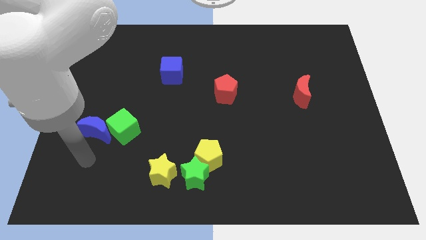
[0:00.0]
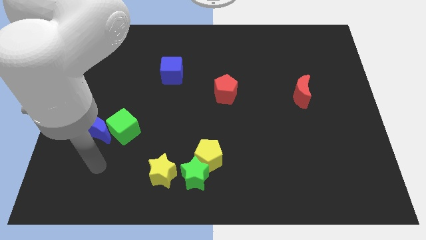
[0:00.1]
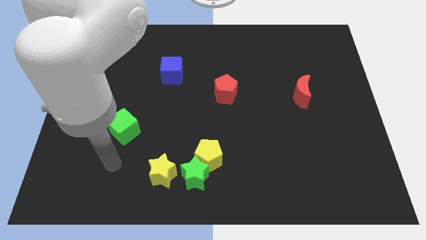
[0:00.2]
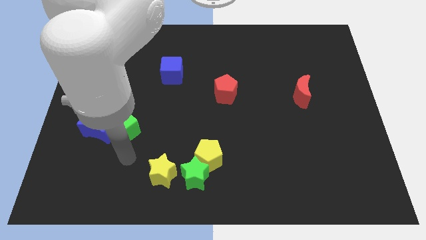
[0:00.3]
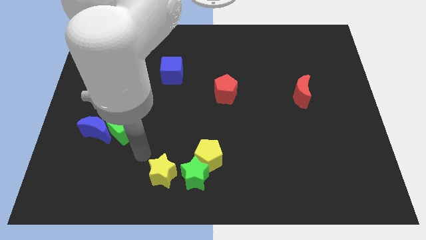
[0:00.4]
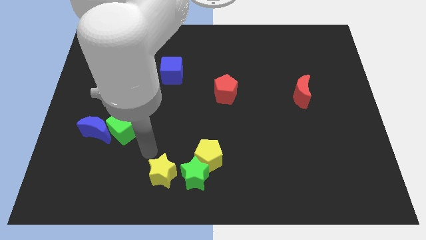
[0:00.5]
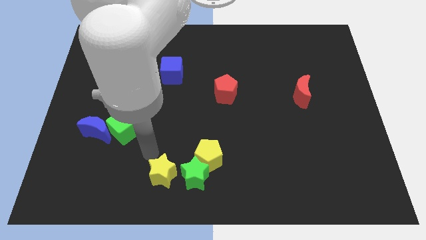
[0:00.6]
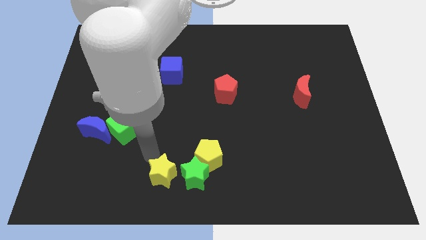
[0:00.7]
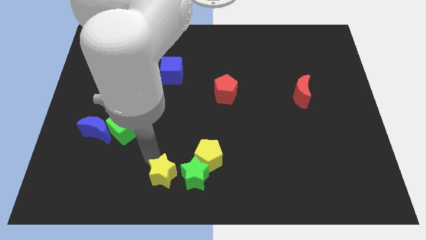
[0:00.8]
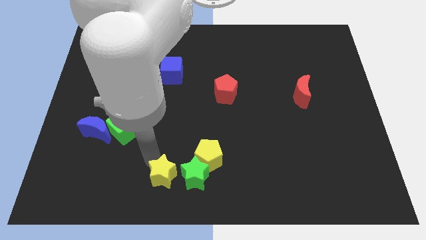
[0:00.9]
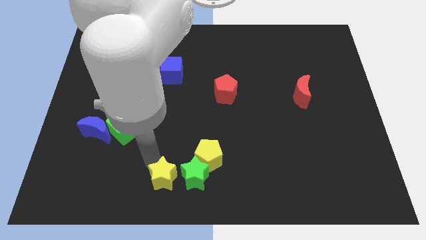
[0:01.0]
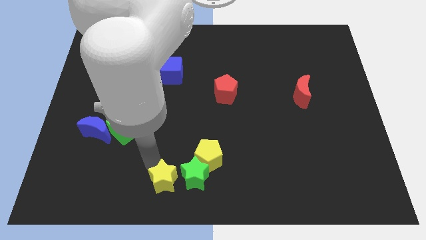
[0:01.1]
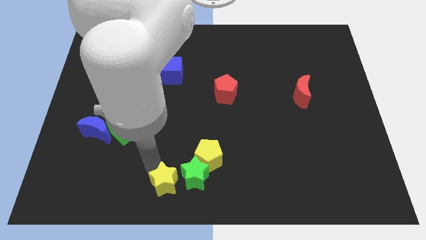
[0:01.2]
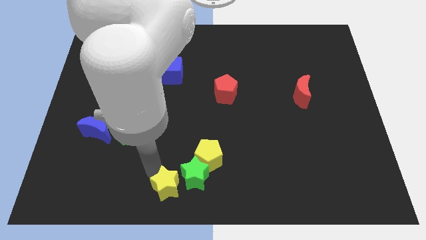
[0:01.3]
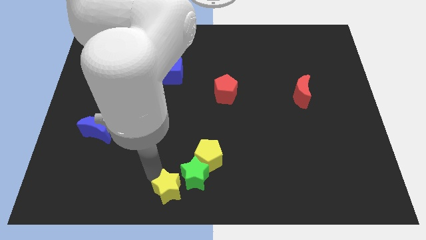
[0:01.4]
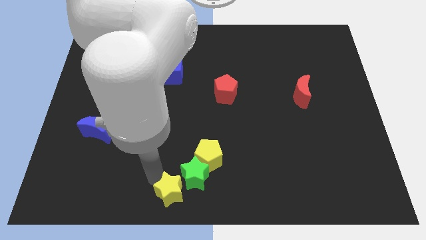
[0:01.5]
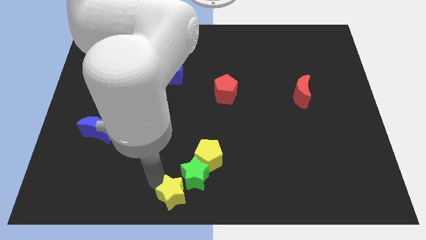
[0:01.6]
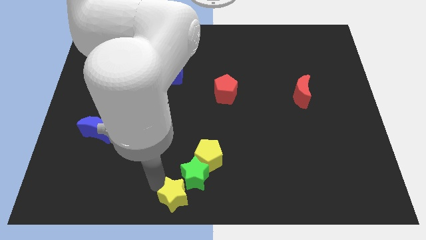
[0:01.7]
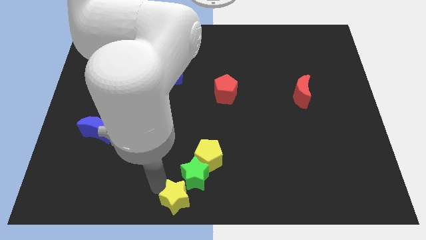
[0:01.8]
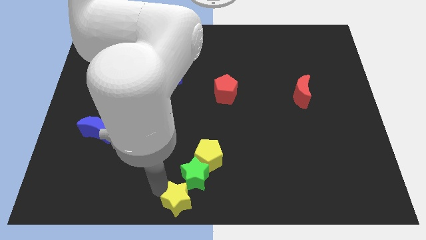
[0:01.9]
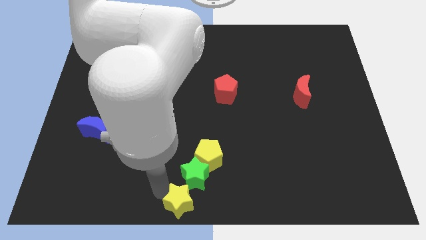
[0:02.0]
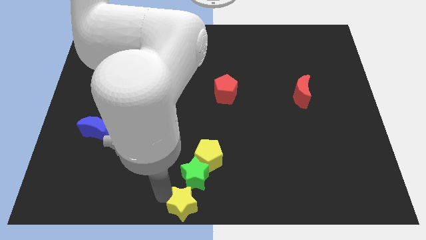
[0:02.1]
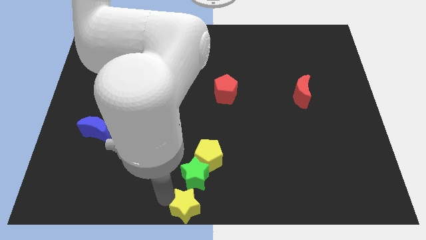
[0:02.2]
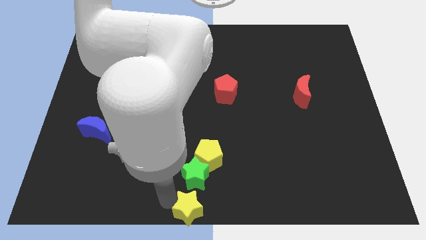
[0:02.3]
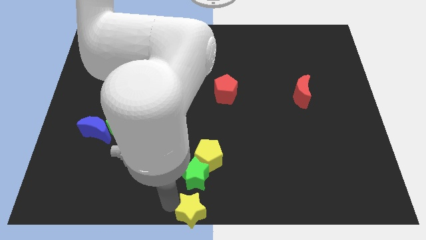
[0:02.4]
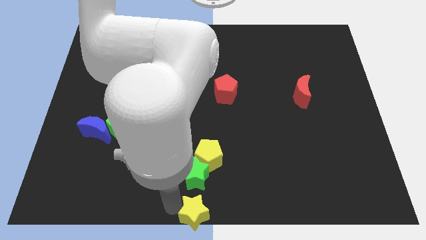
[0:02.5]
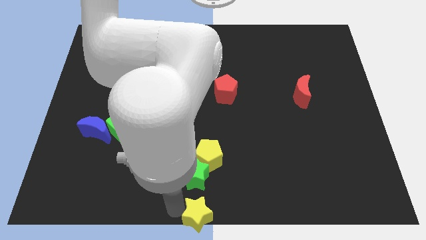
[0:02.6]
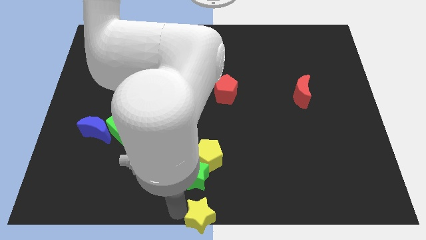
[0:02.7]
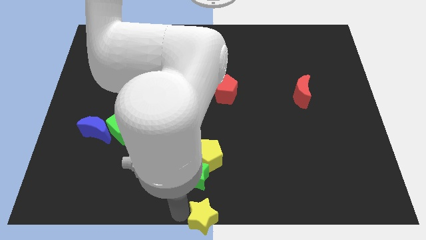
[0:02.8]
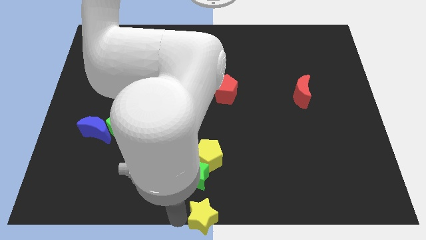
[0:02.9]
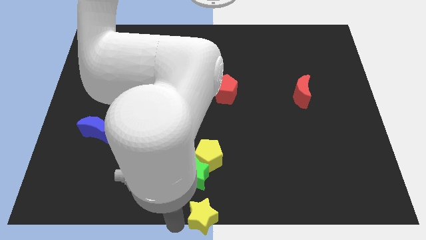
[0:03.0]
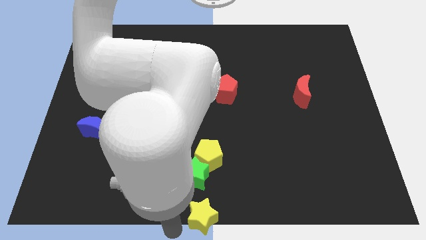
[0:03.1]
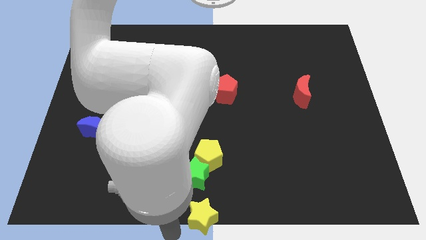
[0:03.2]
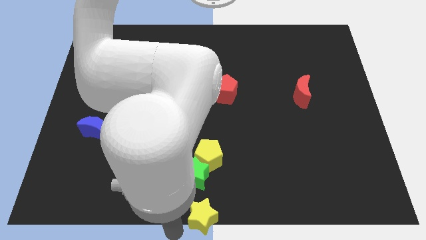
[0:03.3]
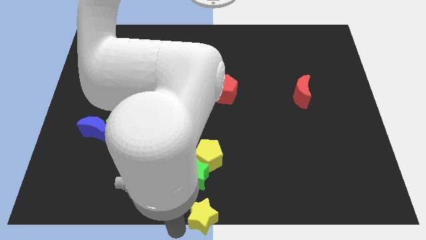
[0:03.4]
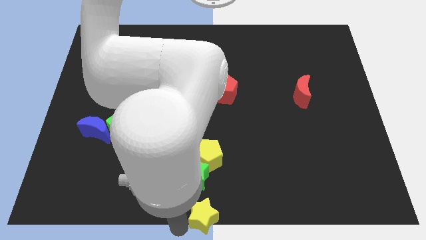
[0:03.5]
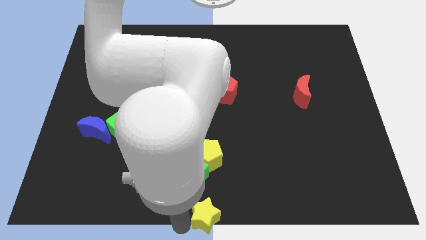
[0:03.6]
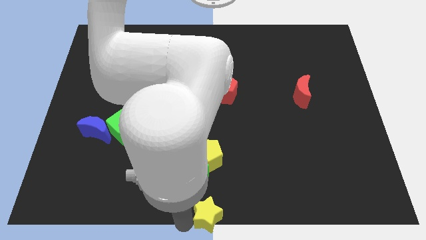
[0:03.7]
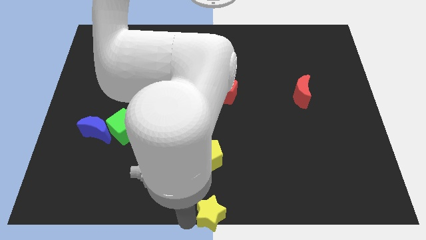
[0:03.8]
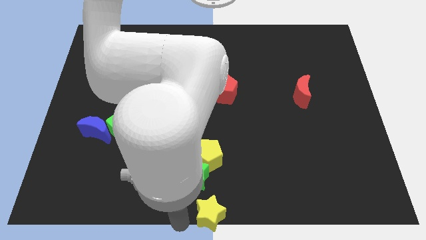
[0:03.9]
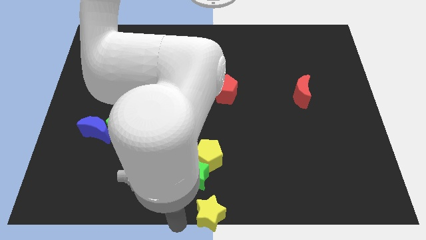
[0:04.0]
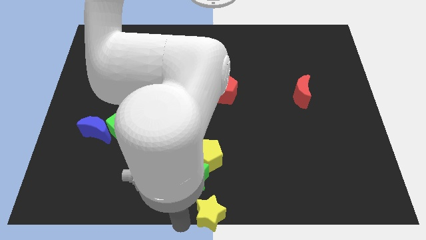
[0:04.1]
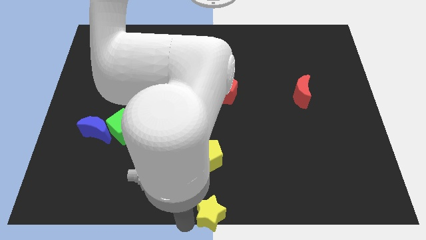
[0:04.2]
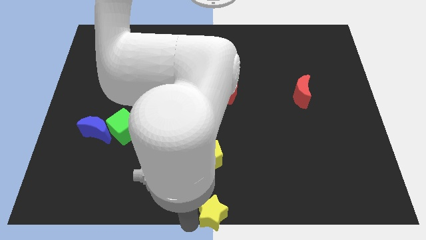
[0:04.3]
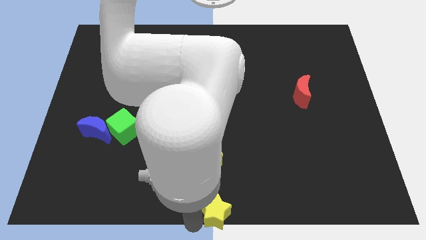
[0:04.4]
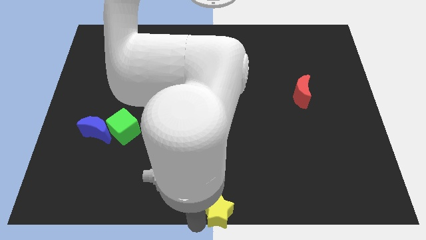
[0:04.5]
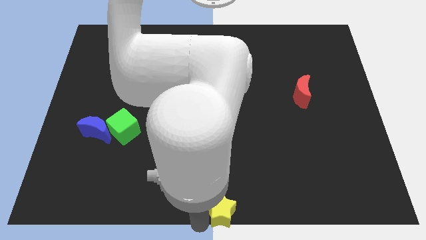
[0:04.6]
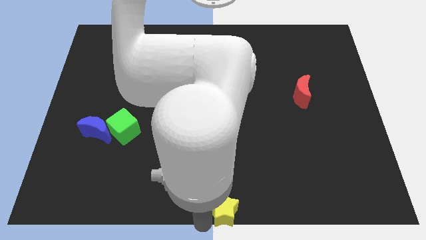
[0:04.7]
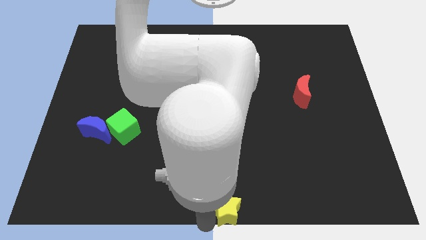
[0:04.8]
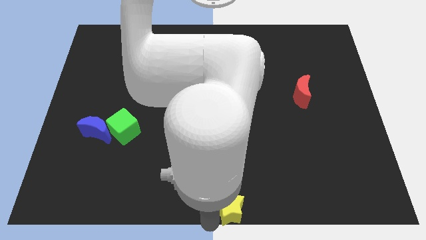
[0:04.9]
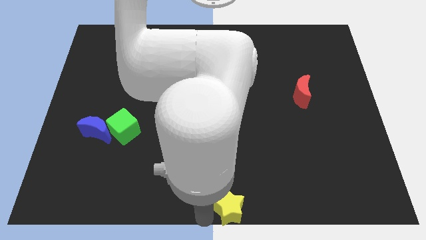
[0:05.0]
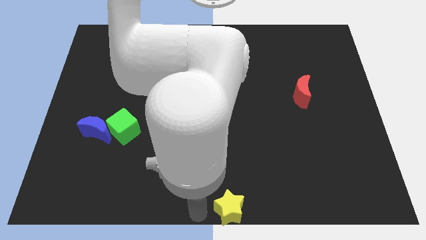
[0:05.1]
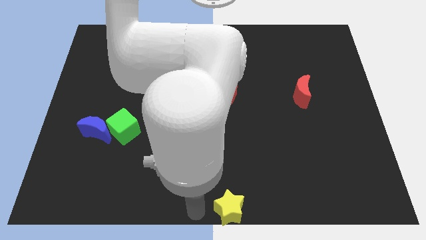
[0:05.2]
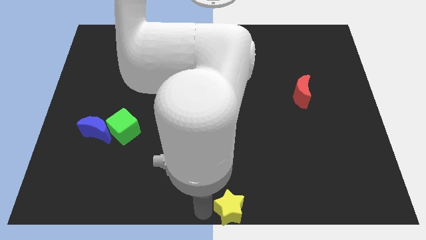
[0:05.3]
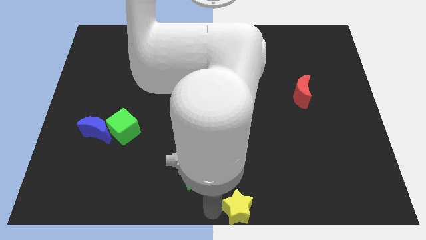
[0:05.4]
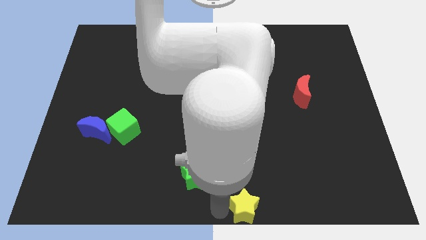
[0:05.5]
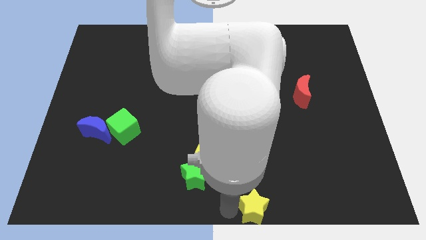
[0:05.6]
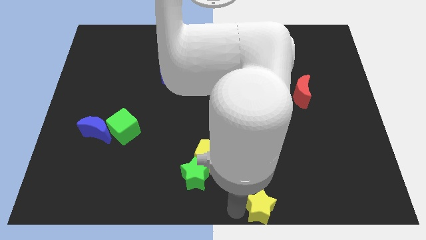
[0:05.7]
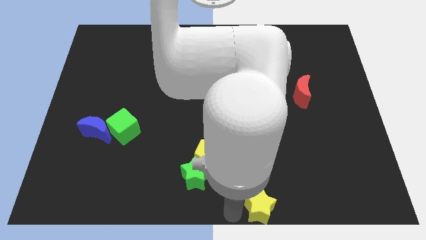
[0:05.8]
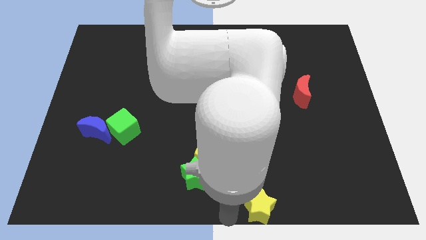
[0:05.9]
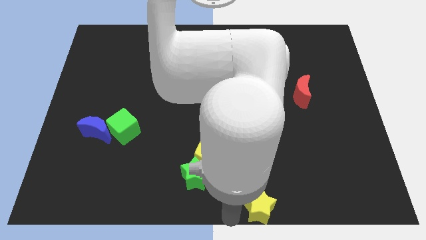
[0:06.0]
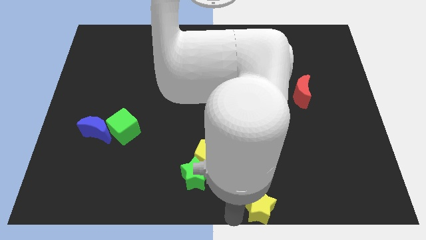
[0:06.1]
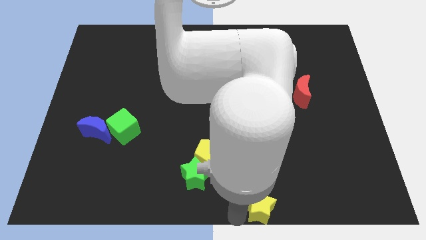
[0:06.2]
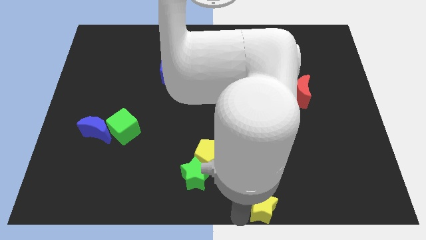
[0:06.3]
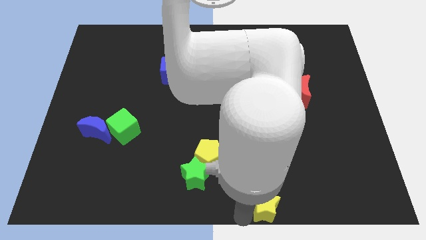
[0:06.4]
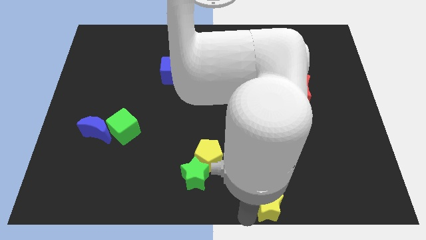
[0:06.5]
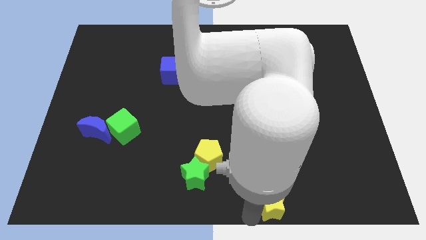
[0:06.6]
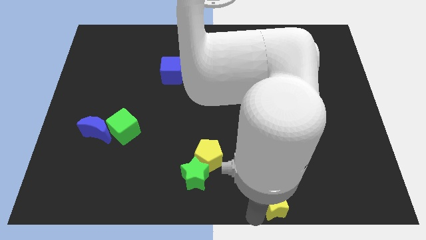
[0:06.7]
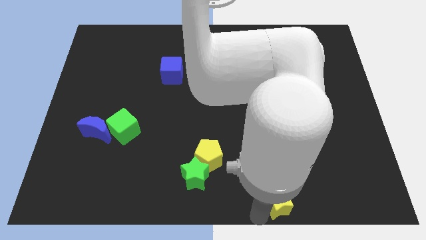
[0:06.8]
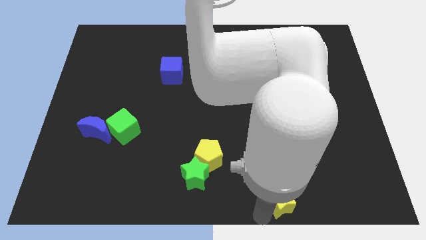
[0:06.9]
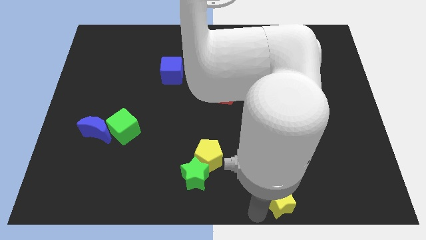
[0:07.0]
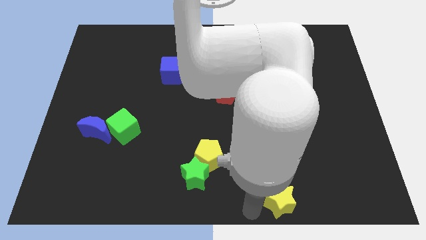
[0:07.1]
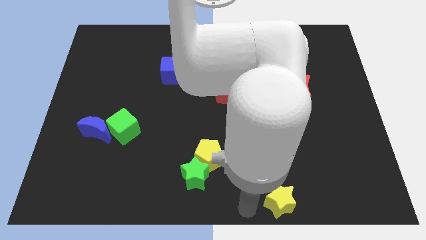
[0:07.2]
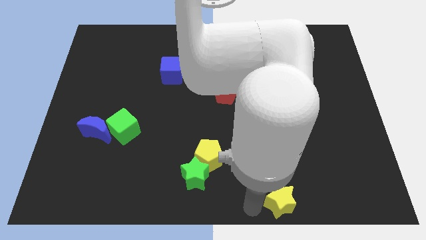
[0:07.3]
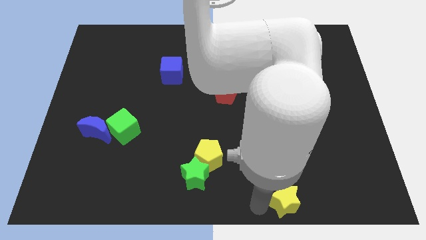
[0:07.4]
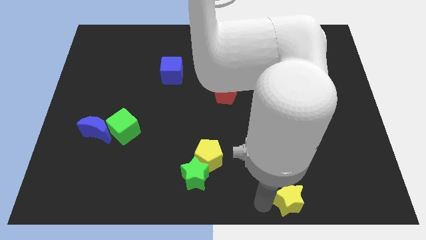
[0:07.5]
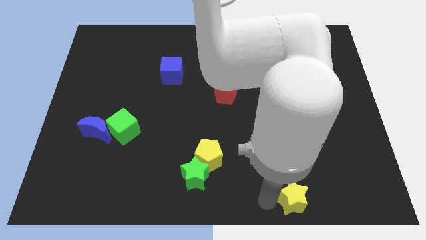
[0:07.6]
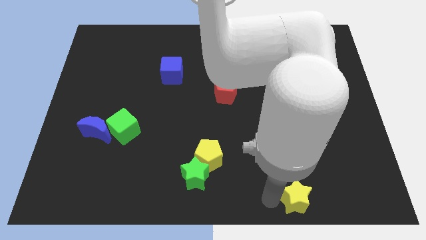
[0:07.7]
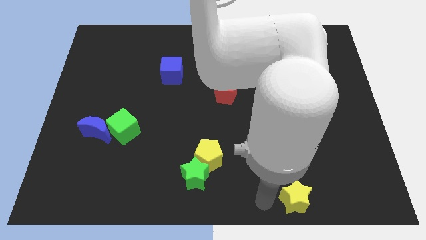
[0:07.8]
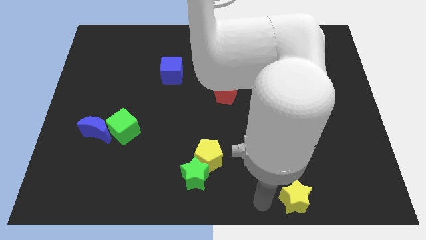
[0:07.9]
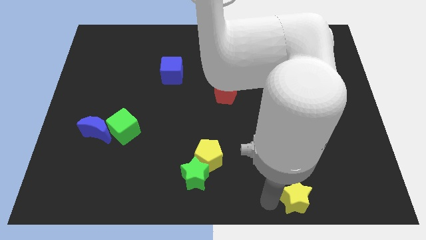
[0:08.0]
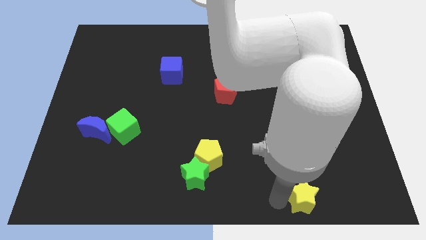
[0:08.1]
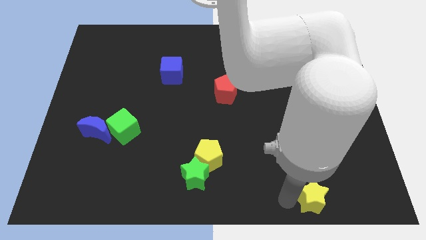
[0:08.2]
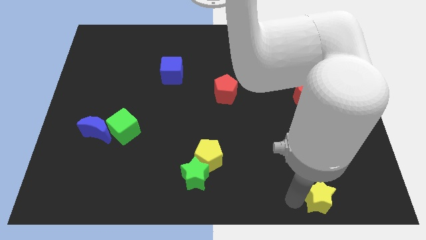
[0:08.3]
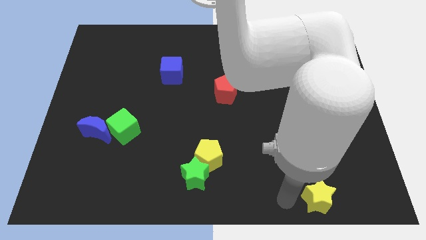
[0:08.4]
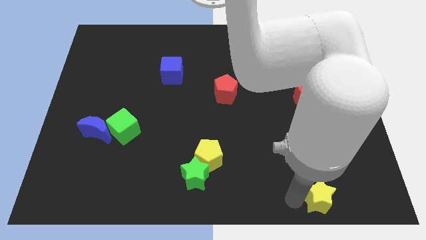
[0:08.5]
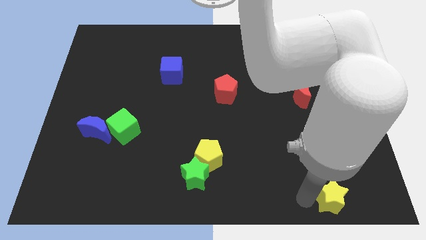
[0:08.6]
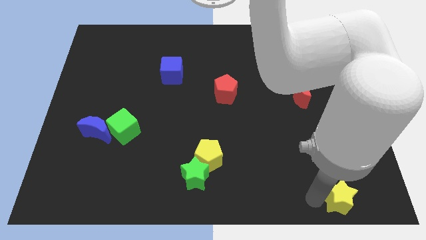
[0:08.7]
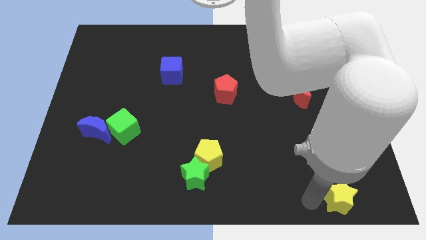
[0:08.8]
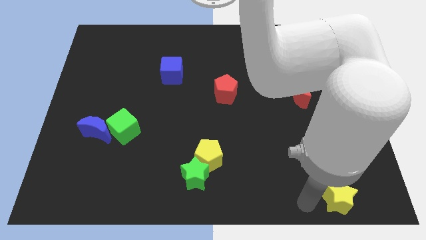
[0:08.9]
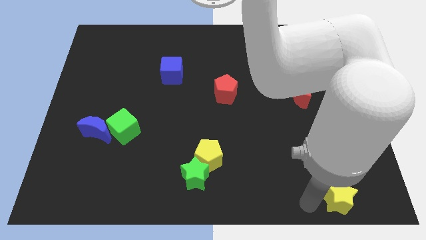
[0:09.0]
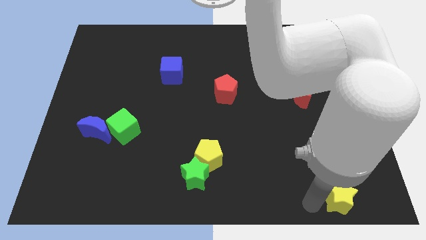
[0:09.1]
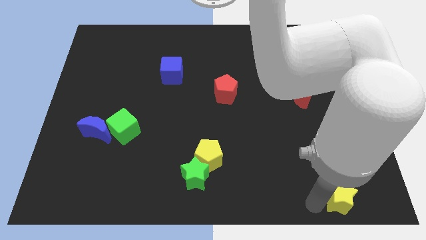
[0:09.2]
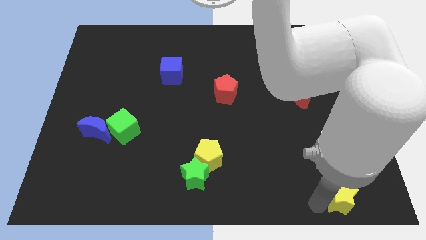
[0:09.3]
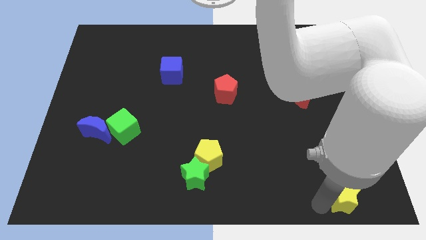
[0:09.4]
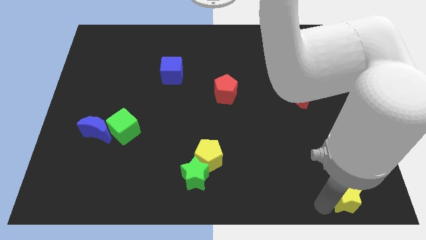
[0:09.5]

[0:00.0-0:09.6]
move the yellow star to the bottom right
